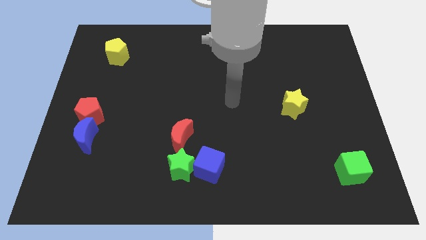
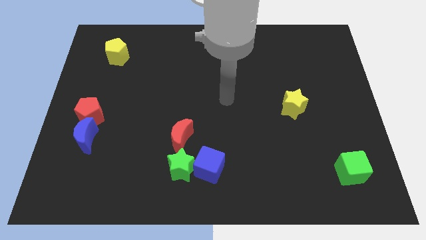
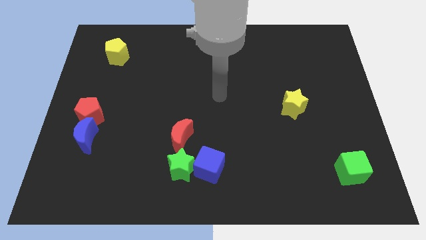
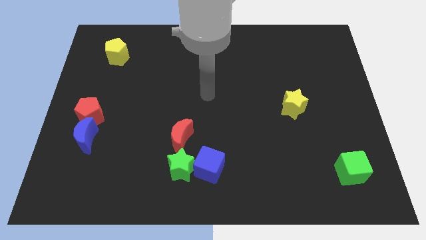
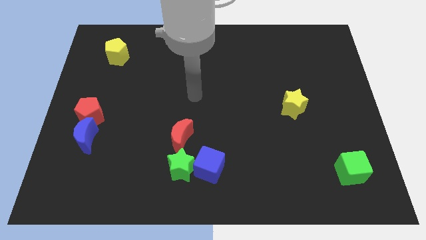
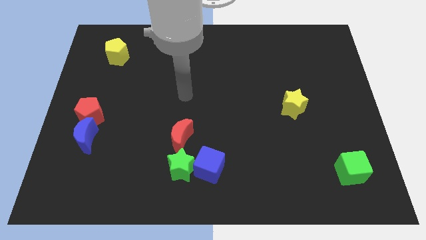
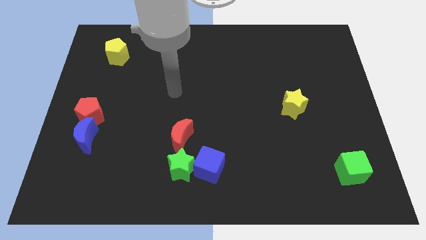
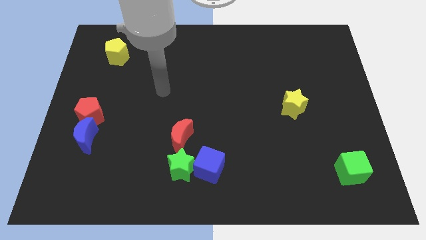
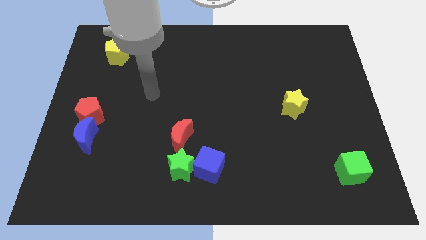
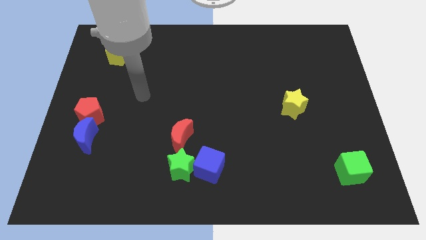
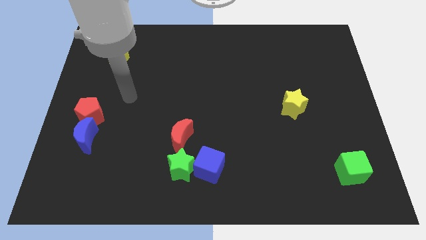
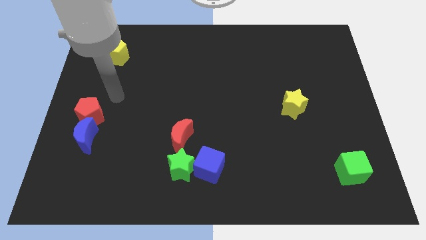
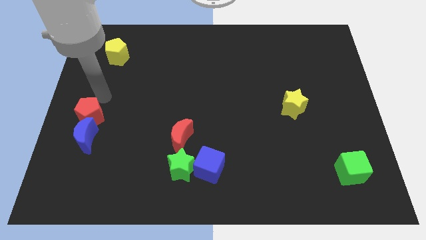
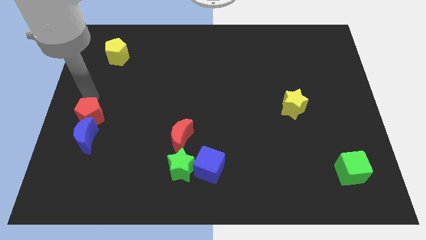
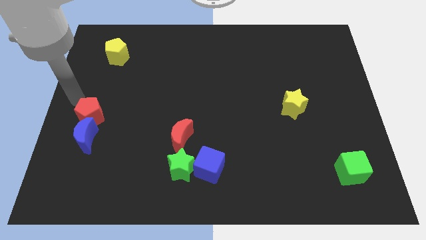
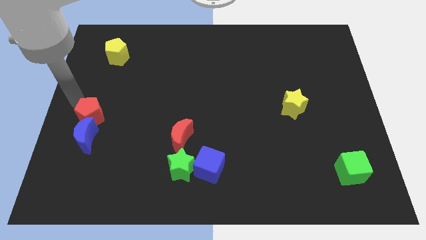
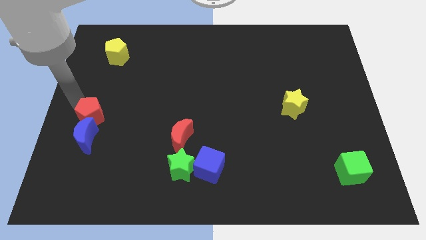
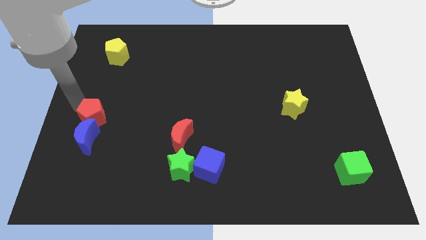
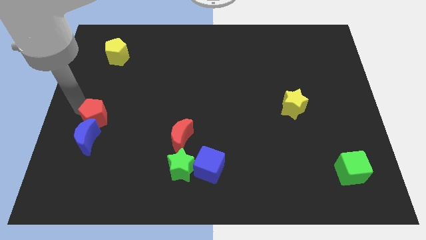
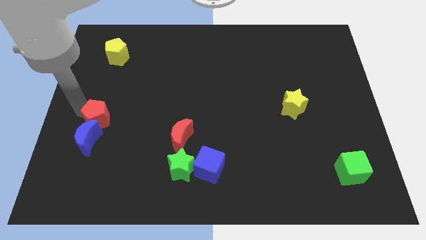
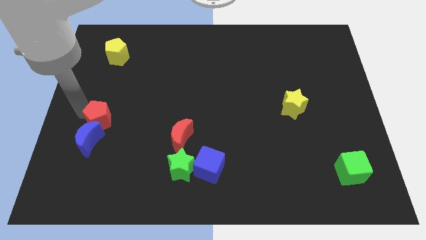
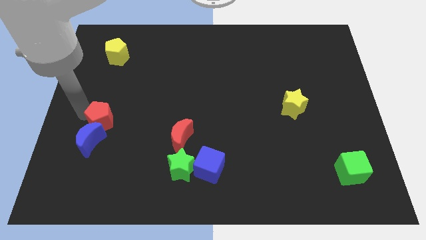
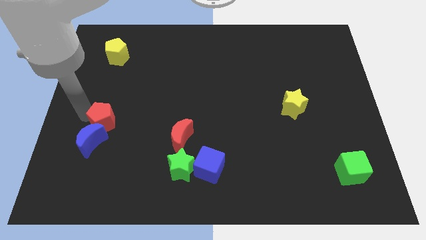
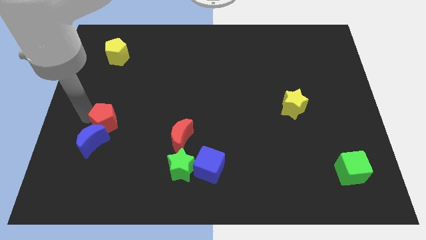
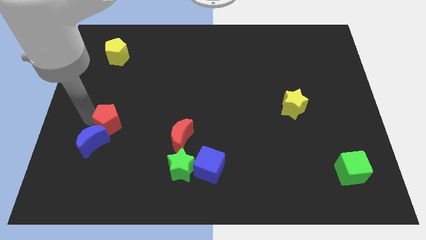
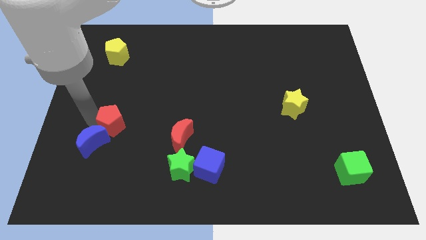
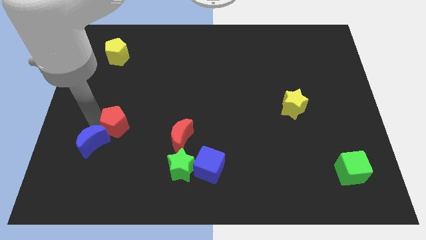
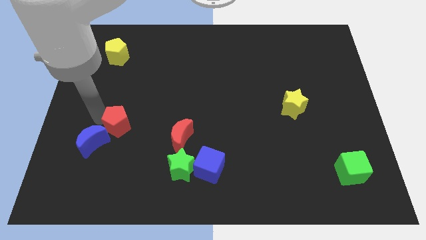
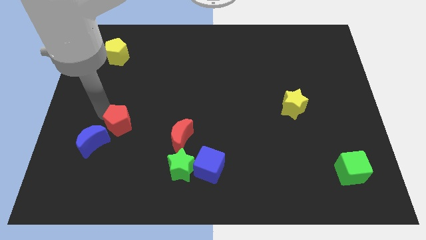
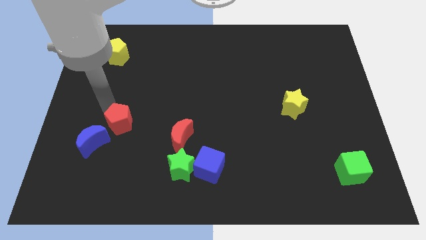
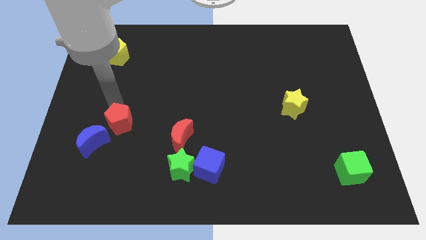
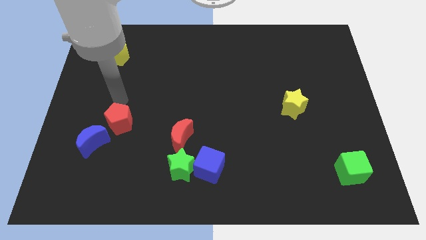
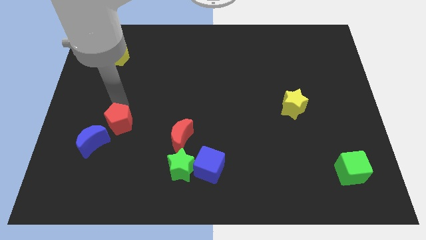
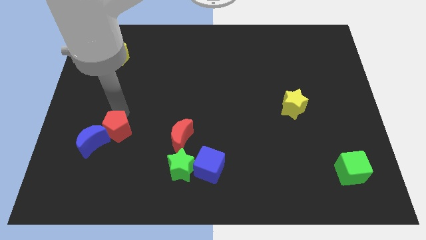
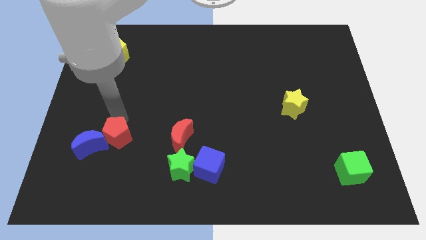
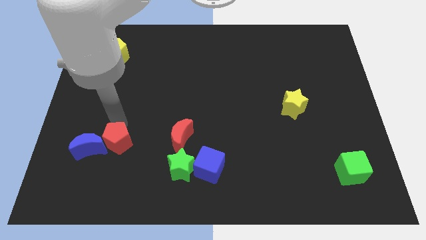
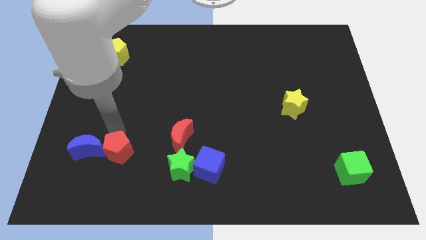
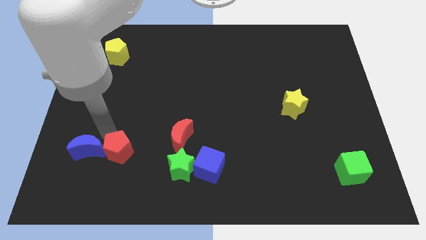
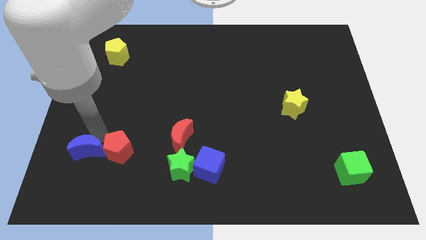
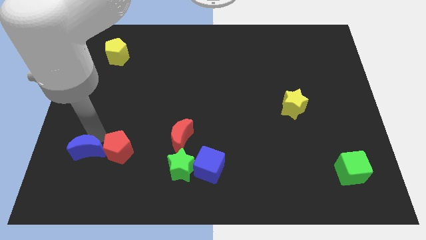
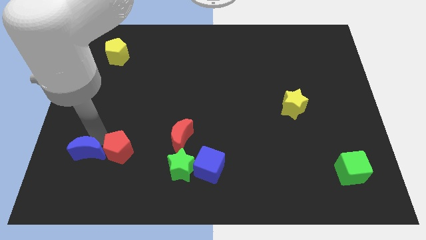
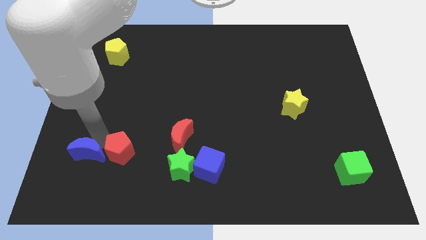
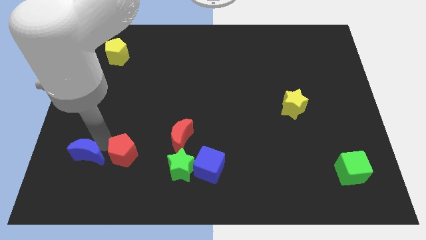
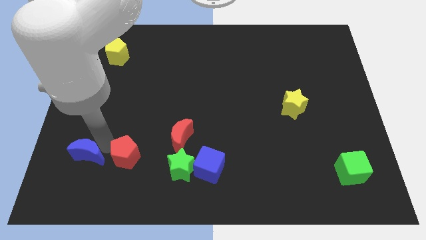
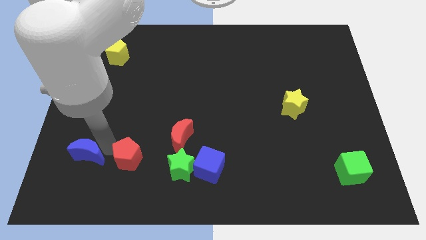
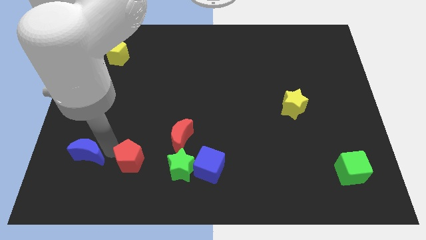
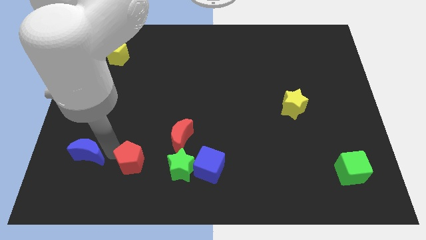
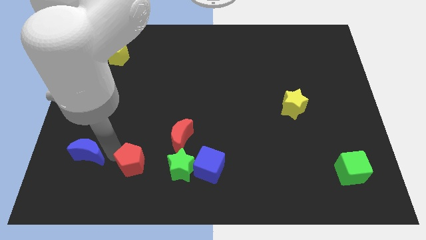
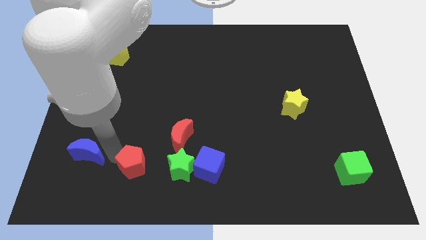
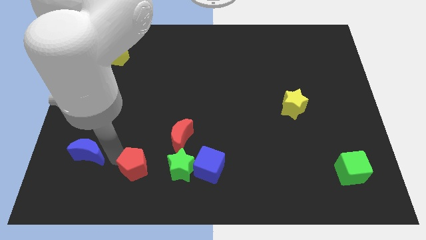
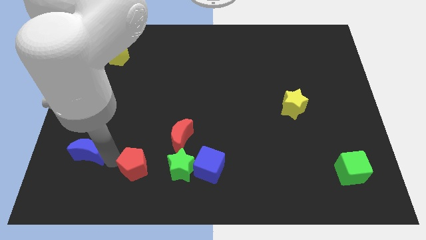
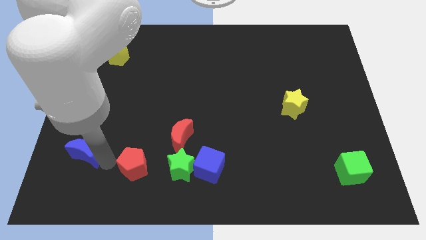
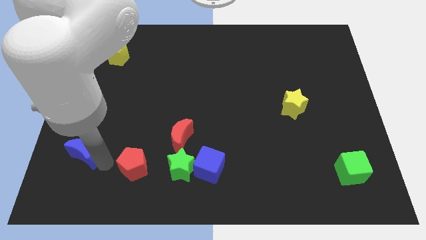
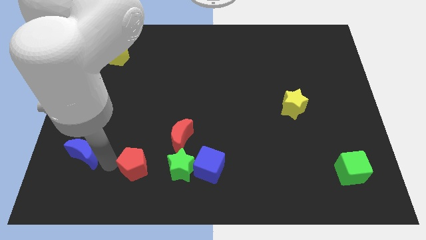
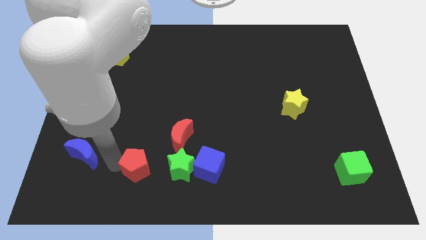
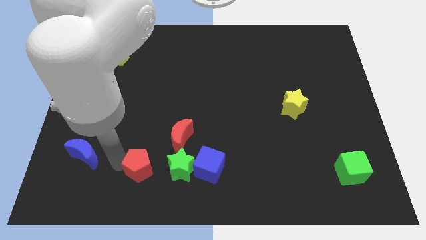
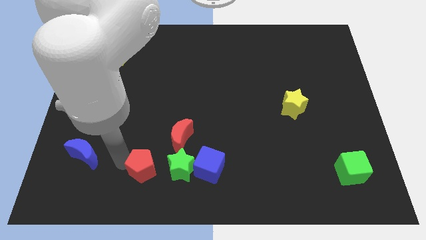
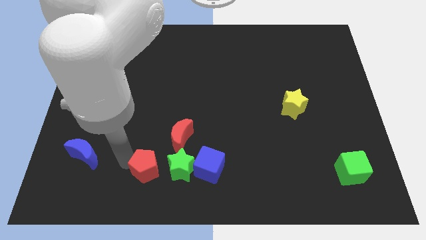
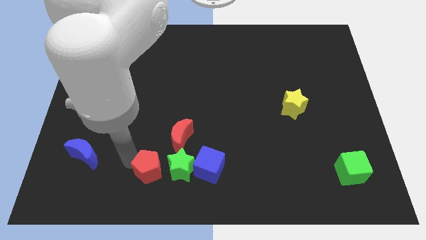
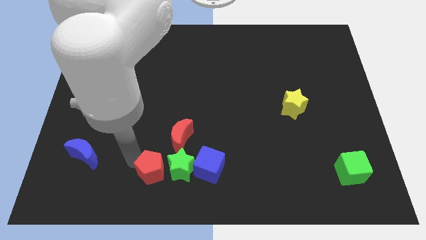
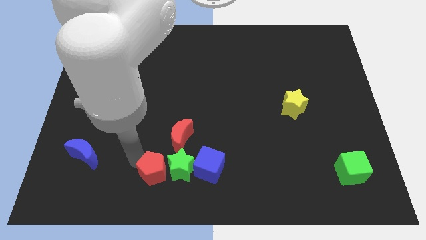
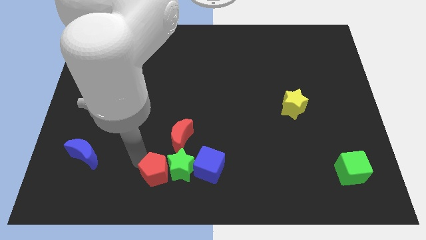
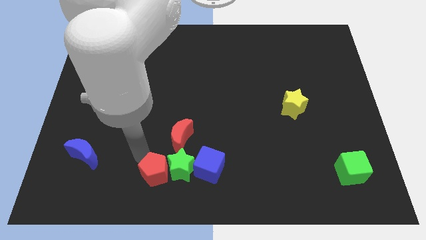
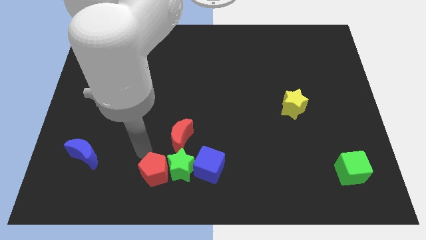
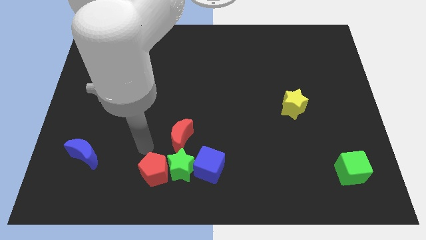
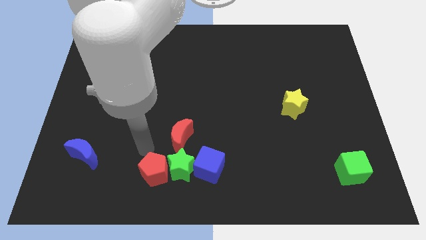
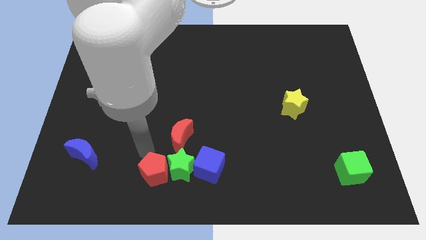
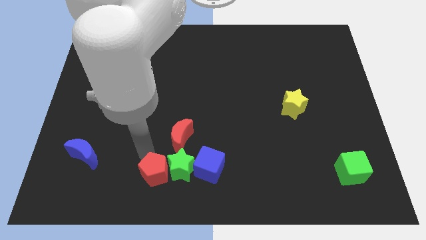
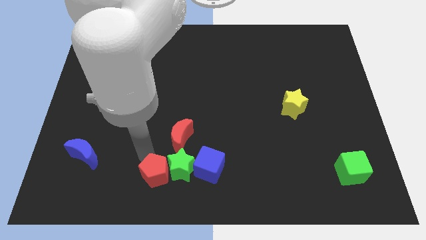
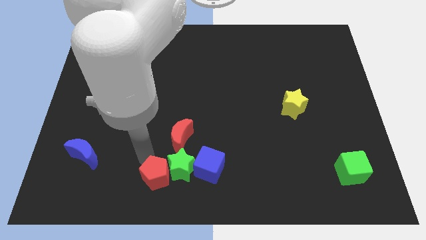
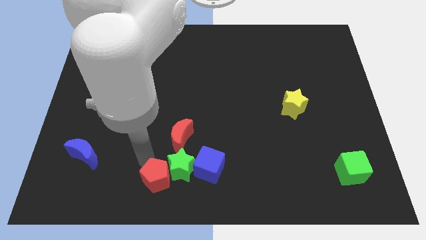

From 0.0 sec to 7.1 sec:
slide the red pentagon to the bottom side

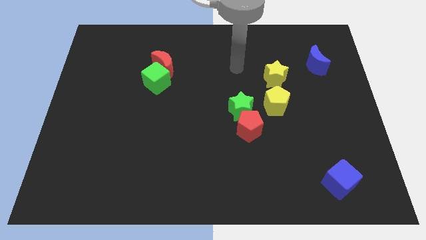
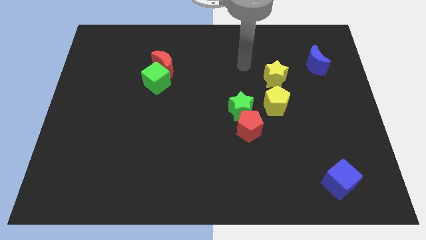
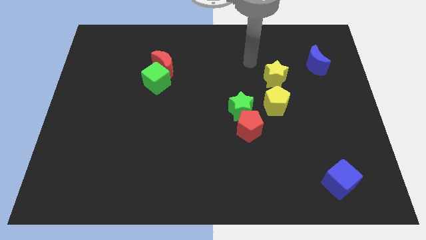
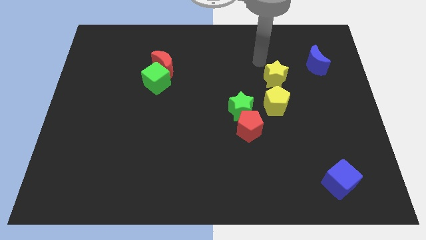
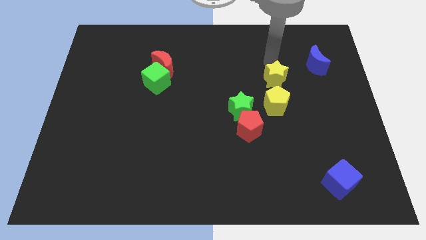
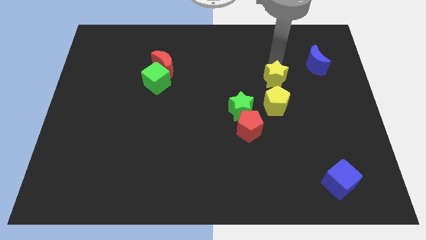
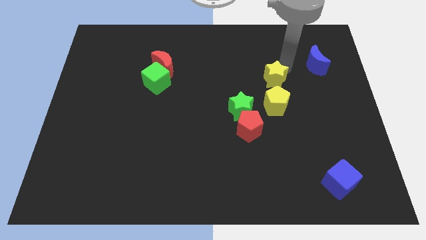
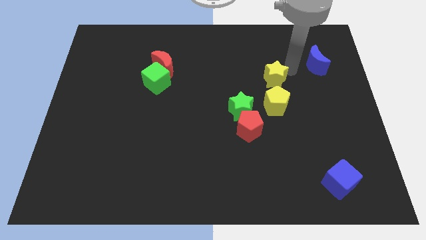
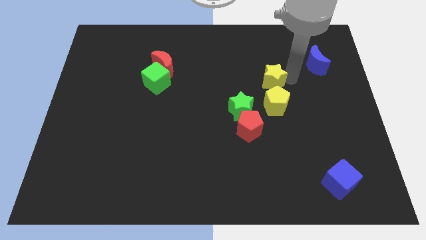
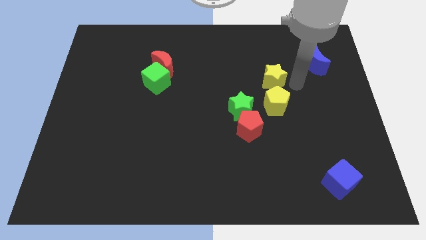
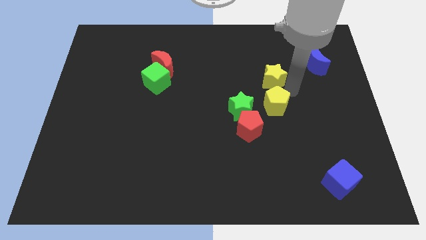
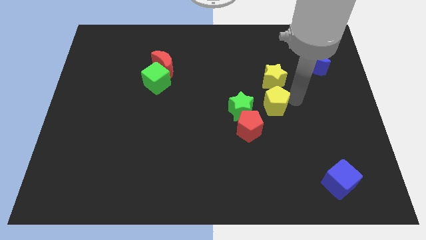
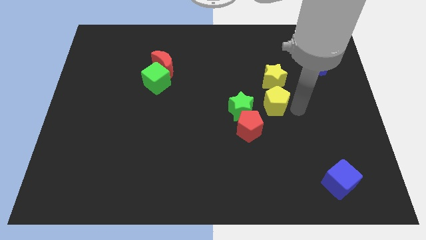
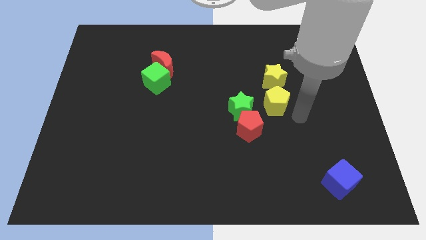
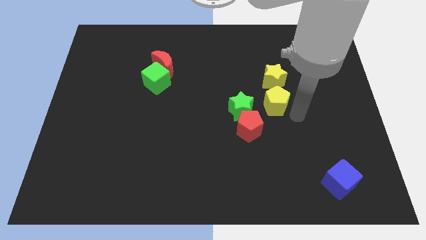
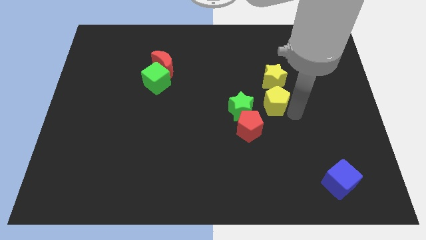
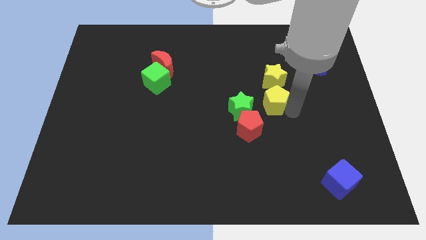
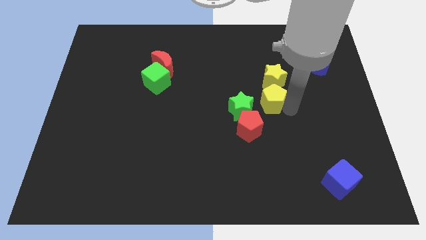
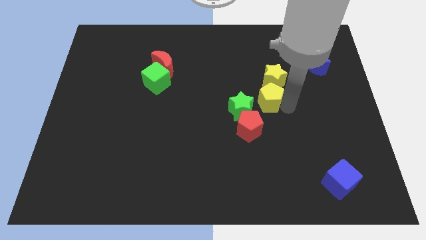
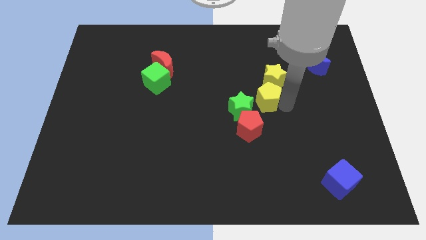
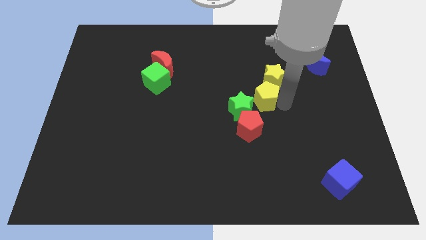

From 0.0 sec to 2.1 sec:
push the yellow pentagon to the center of the board
